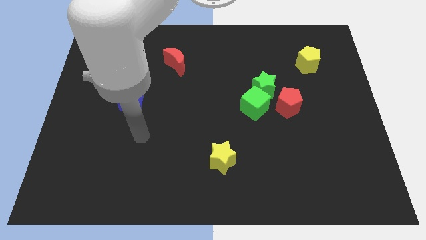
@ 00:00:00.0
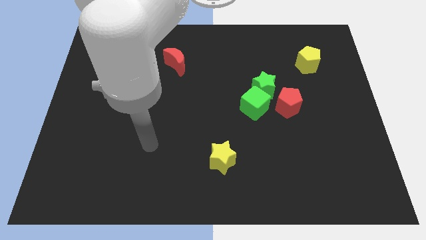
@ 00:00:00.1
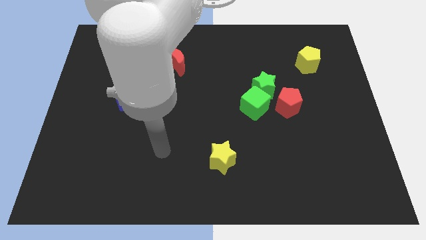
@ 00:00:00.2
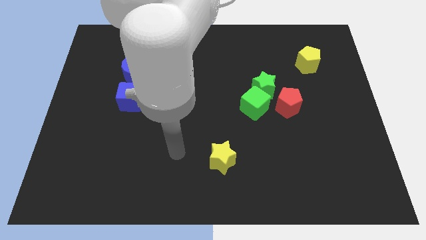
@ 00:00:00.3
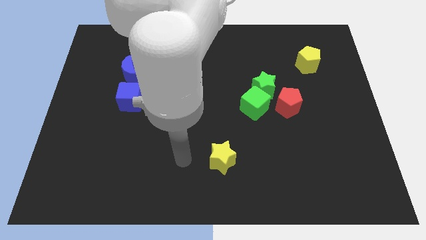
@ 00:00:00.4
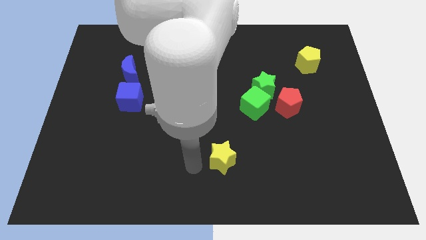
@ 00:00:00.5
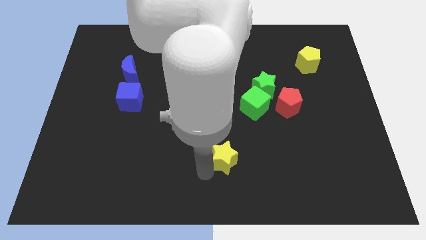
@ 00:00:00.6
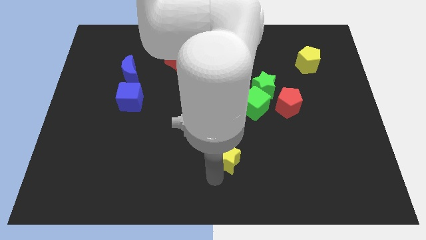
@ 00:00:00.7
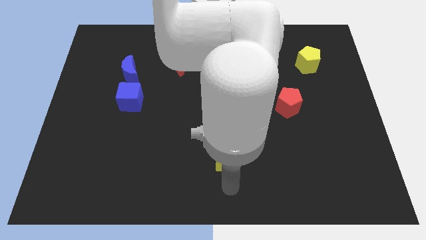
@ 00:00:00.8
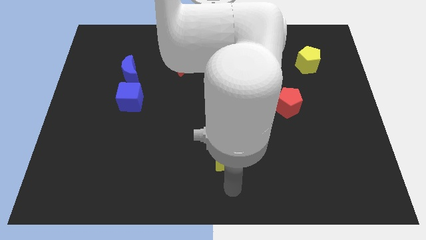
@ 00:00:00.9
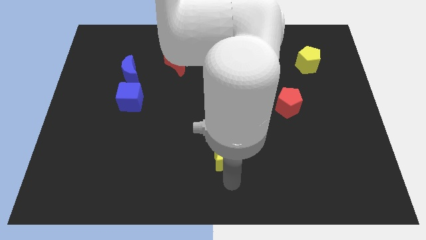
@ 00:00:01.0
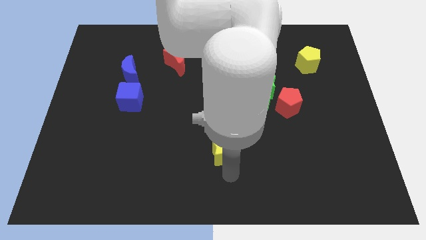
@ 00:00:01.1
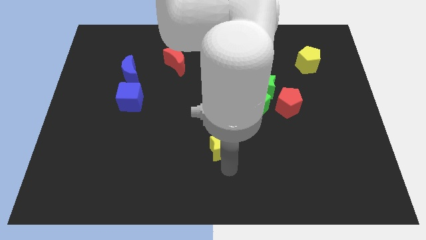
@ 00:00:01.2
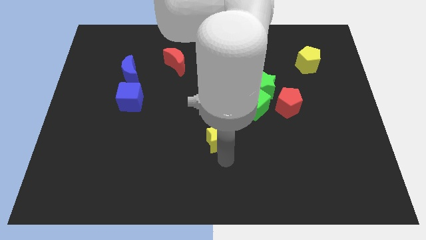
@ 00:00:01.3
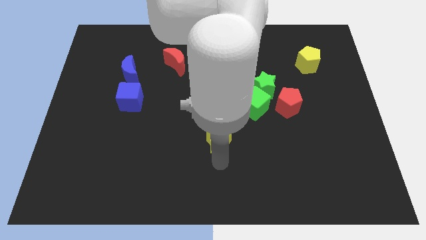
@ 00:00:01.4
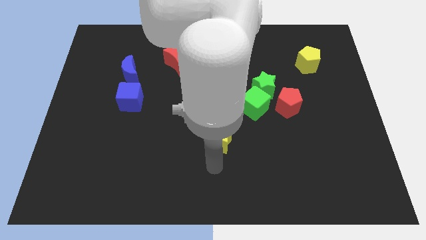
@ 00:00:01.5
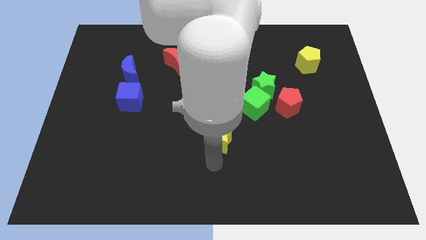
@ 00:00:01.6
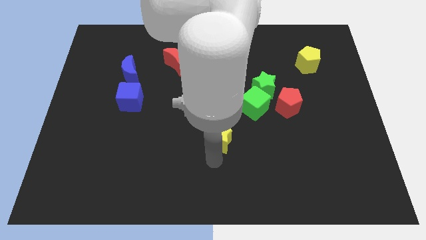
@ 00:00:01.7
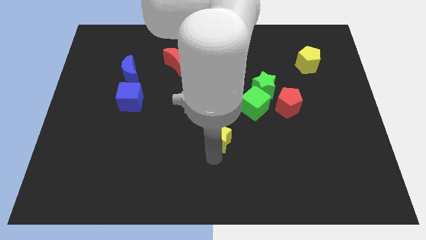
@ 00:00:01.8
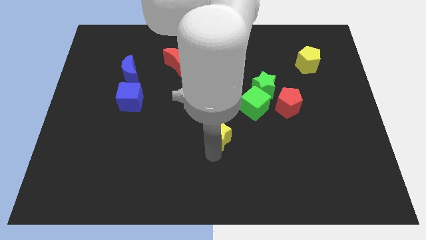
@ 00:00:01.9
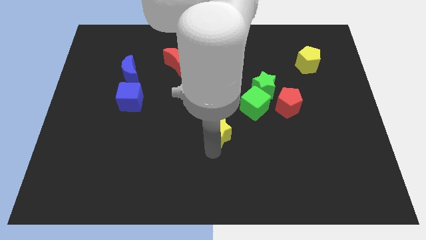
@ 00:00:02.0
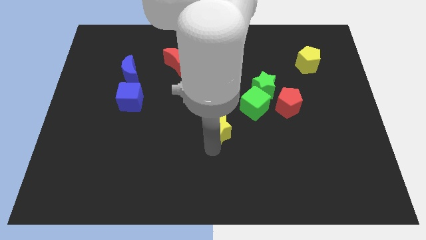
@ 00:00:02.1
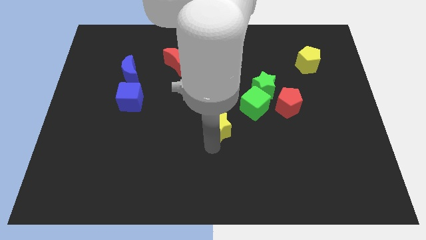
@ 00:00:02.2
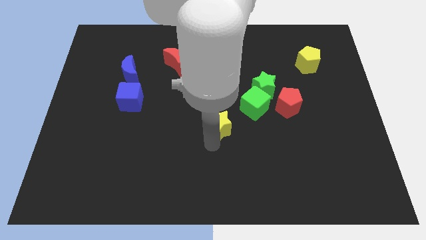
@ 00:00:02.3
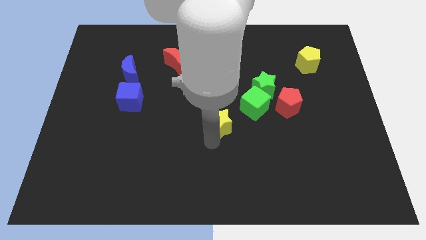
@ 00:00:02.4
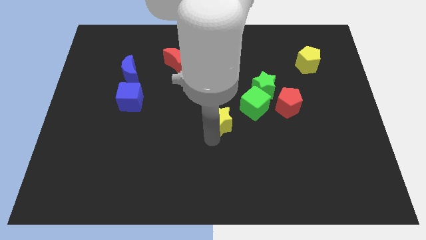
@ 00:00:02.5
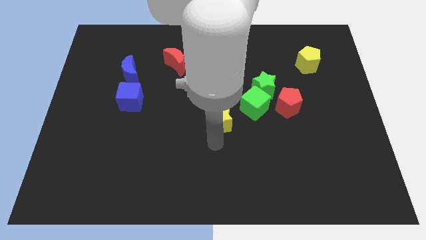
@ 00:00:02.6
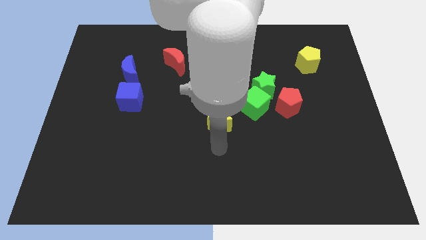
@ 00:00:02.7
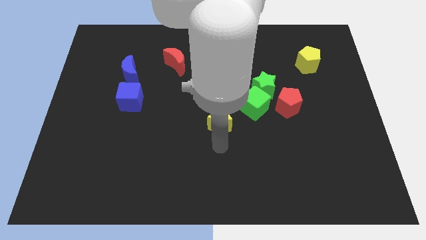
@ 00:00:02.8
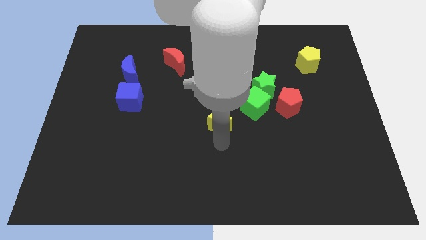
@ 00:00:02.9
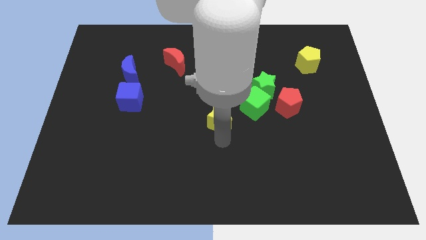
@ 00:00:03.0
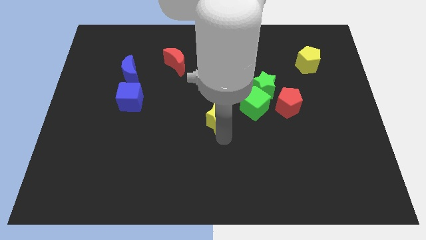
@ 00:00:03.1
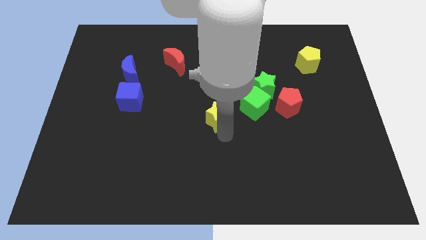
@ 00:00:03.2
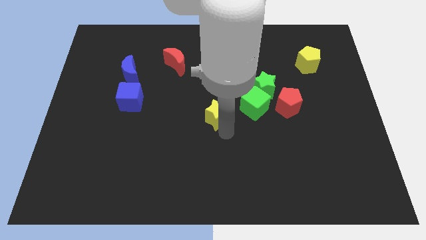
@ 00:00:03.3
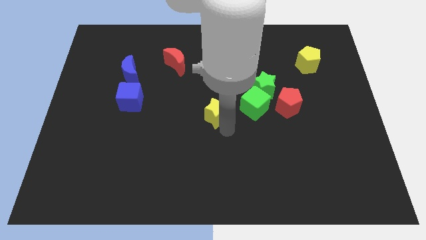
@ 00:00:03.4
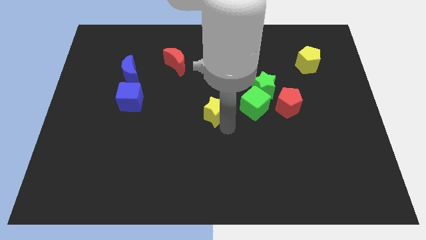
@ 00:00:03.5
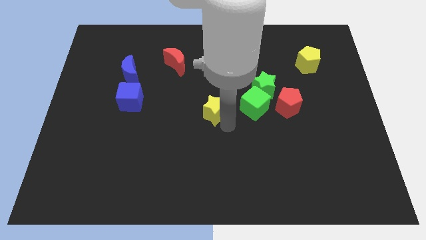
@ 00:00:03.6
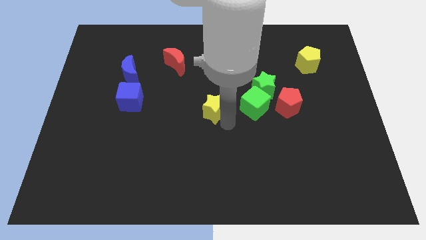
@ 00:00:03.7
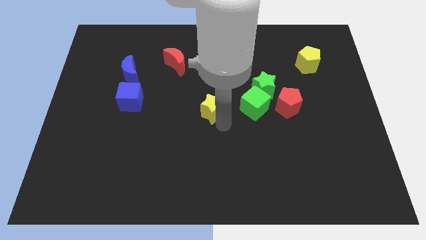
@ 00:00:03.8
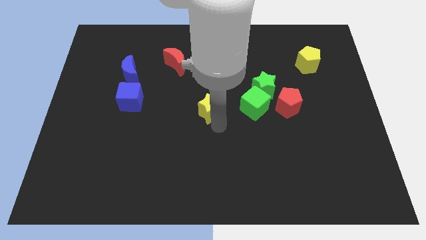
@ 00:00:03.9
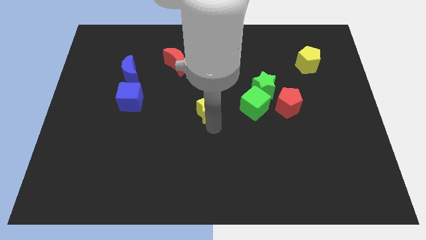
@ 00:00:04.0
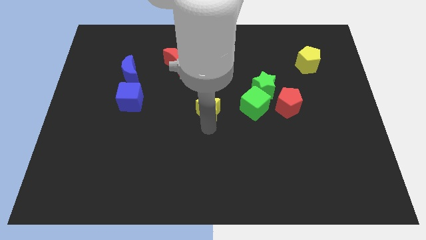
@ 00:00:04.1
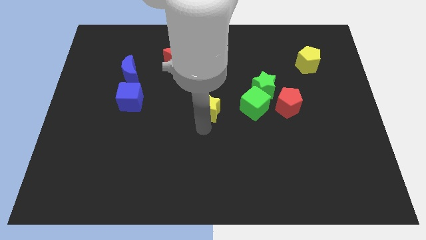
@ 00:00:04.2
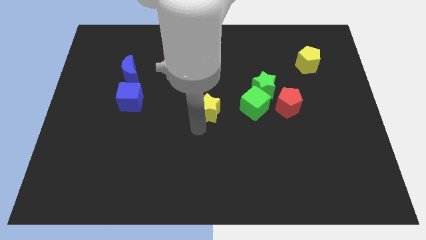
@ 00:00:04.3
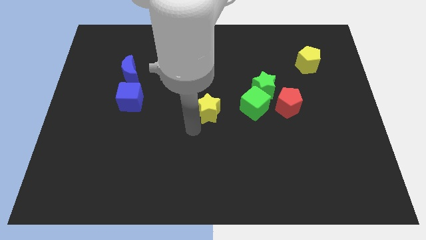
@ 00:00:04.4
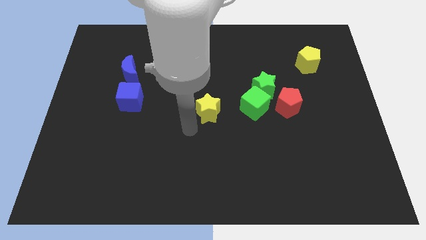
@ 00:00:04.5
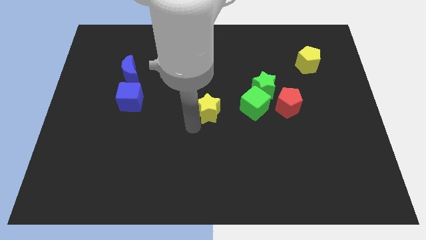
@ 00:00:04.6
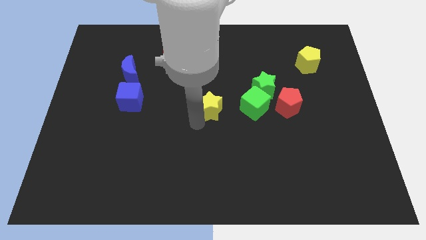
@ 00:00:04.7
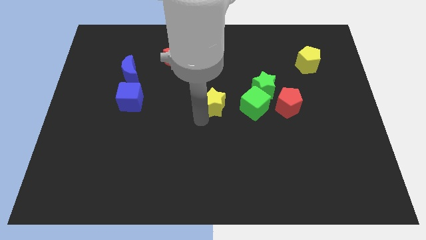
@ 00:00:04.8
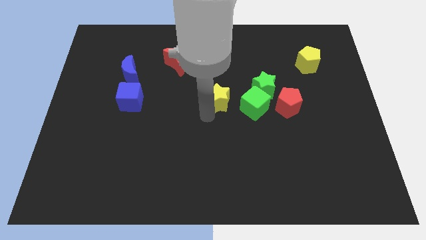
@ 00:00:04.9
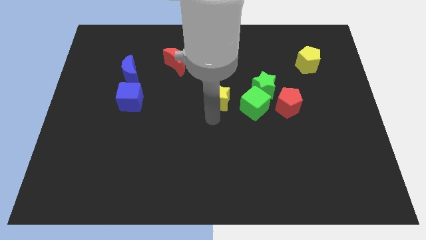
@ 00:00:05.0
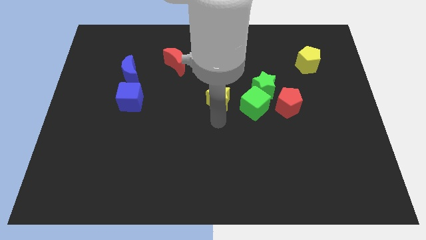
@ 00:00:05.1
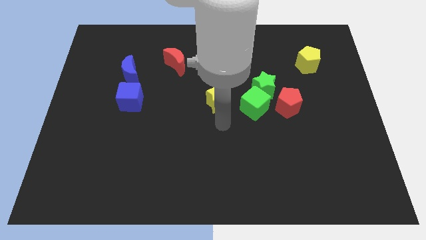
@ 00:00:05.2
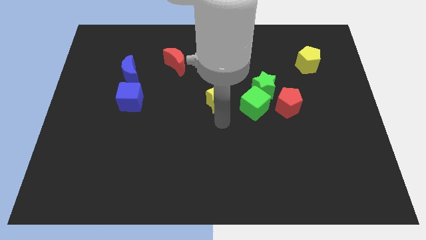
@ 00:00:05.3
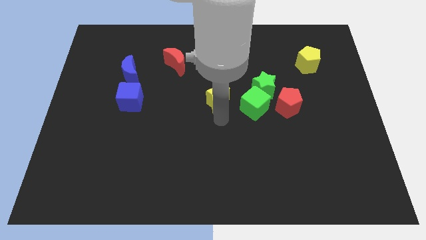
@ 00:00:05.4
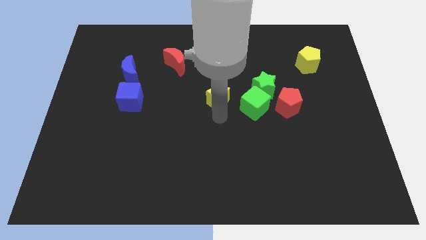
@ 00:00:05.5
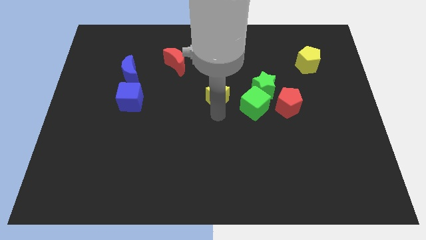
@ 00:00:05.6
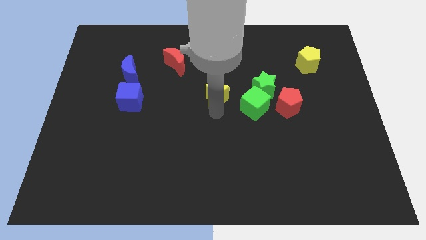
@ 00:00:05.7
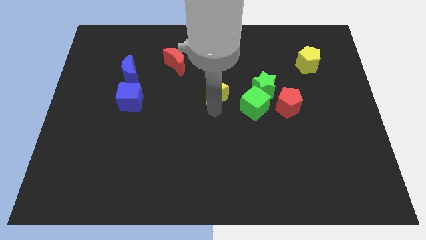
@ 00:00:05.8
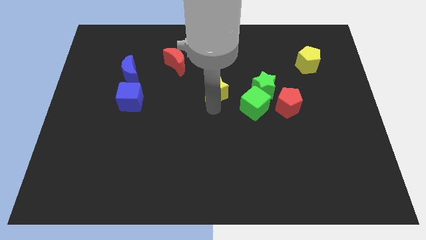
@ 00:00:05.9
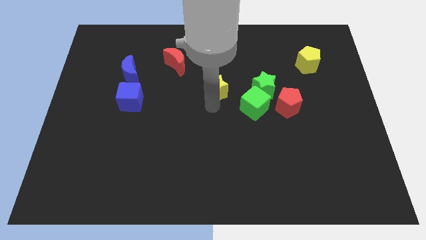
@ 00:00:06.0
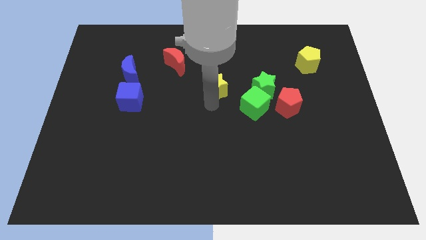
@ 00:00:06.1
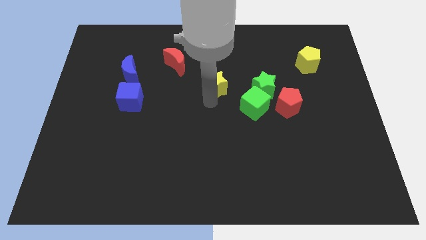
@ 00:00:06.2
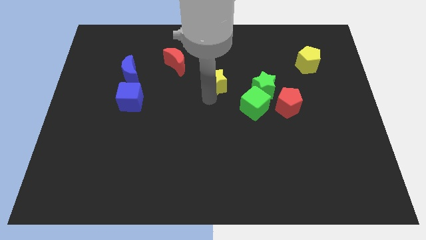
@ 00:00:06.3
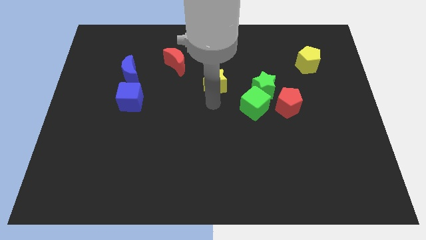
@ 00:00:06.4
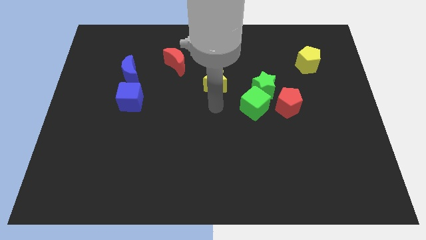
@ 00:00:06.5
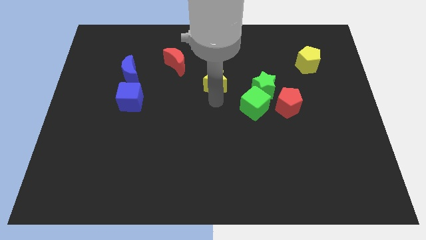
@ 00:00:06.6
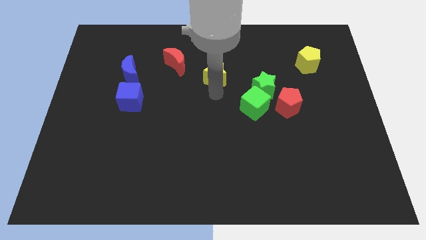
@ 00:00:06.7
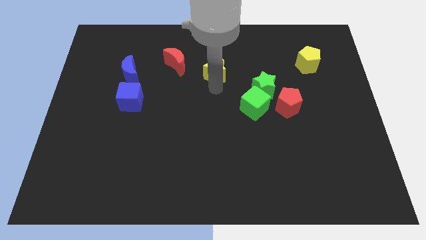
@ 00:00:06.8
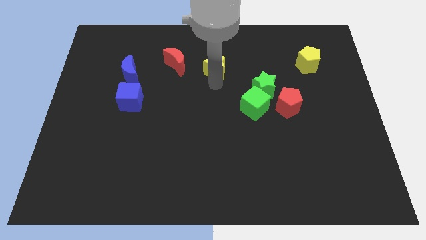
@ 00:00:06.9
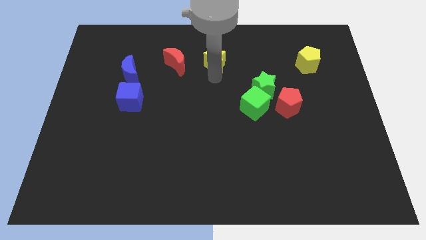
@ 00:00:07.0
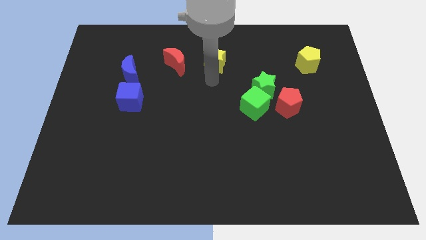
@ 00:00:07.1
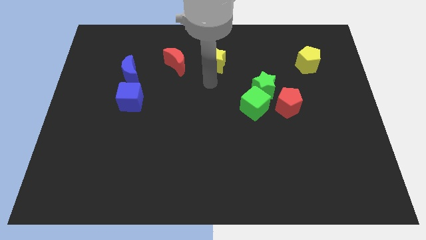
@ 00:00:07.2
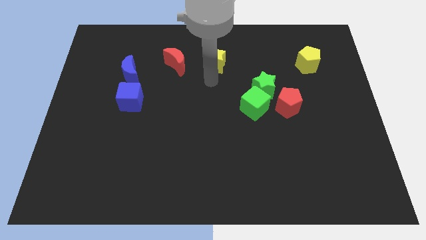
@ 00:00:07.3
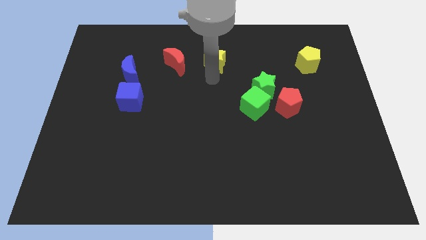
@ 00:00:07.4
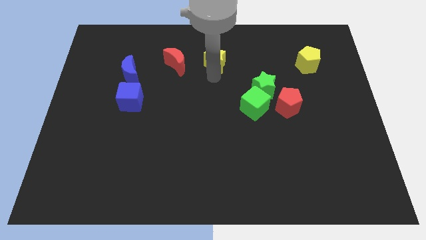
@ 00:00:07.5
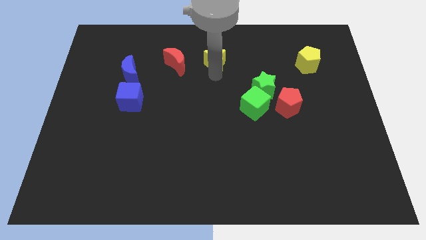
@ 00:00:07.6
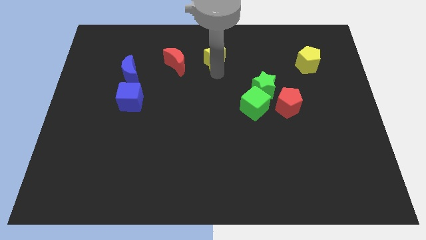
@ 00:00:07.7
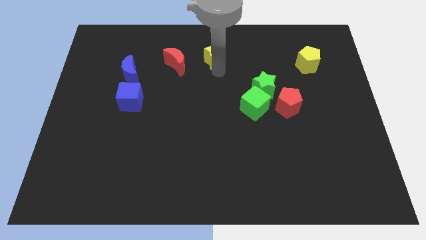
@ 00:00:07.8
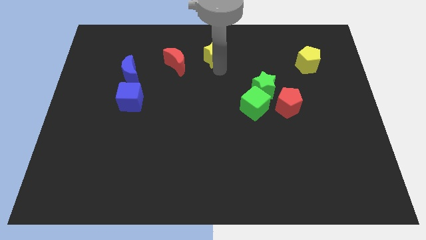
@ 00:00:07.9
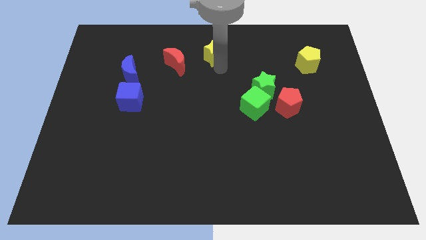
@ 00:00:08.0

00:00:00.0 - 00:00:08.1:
put the yellow star to the towards your base
